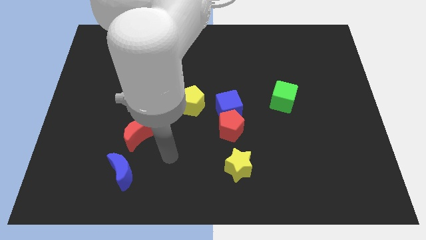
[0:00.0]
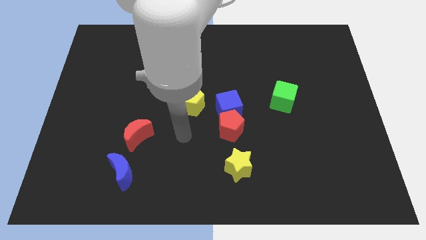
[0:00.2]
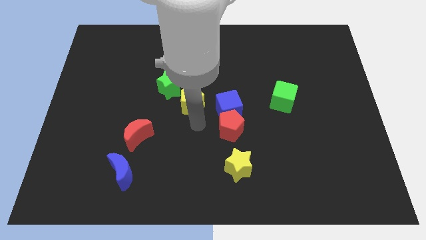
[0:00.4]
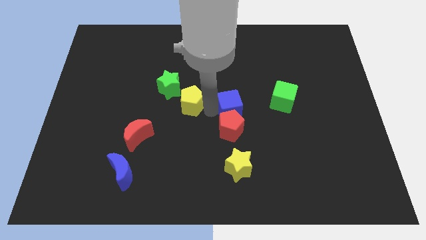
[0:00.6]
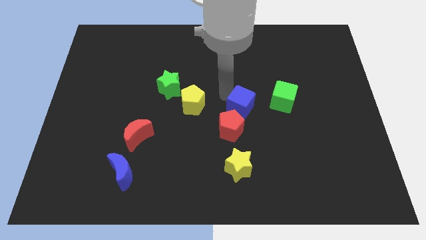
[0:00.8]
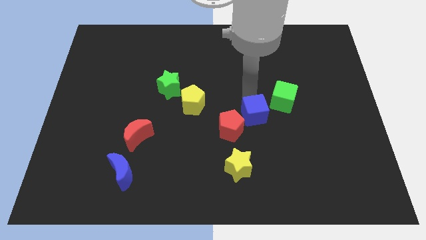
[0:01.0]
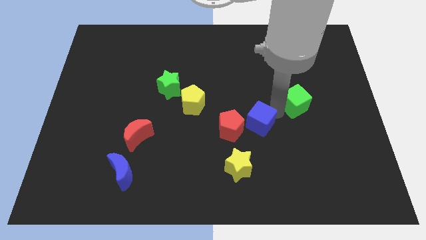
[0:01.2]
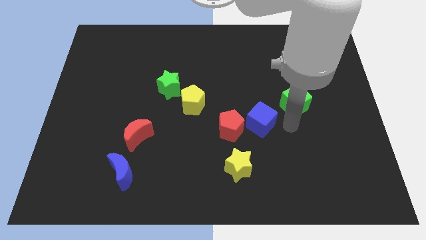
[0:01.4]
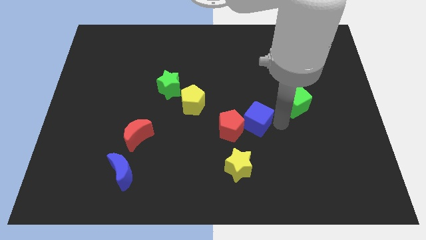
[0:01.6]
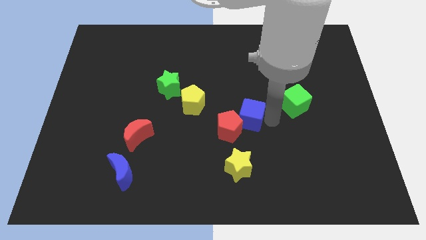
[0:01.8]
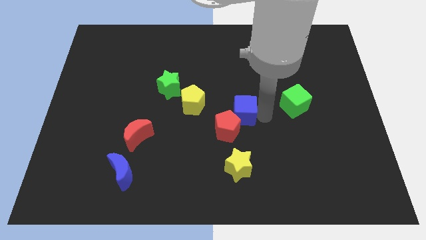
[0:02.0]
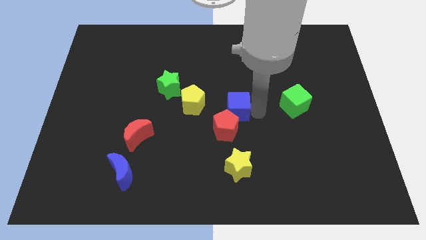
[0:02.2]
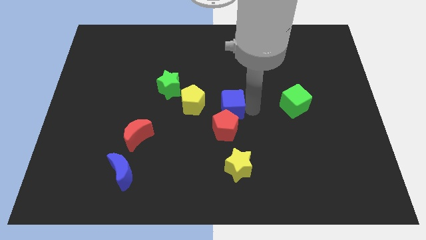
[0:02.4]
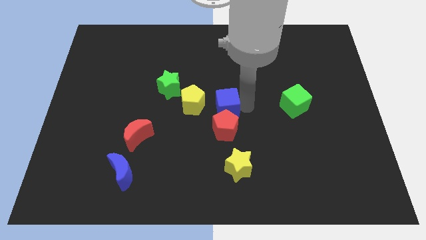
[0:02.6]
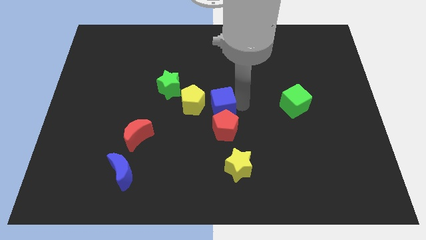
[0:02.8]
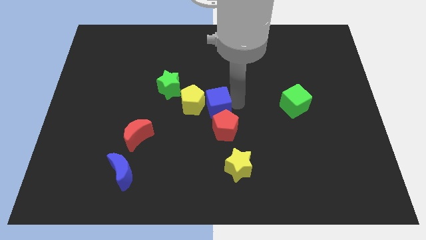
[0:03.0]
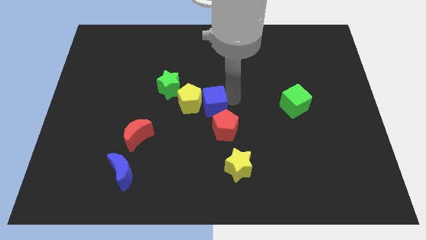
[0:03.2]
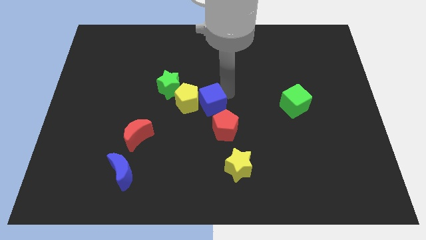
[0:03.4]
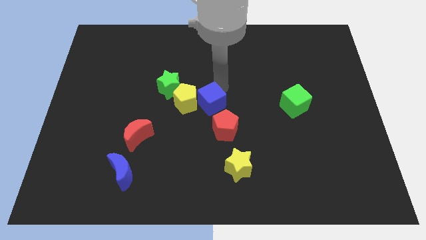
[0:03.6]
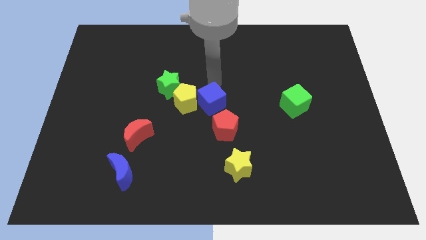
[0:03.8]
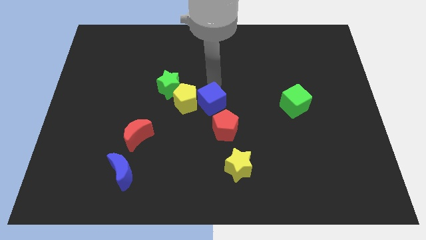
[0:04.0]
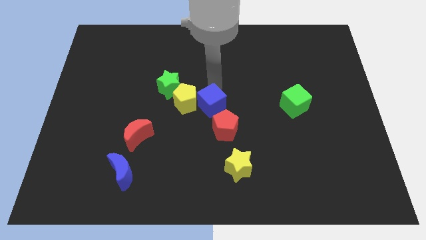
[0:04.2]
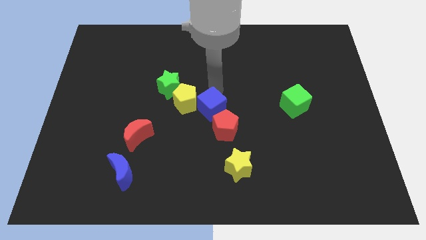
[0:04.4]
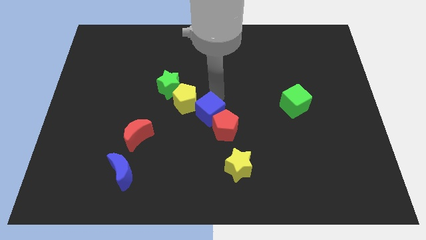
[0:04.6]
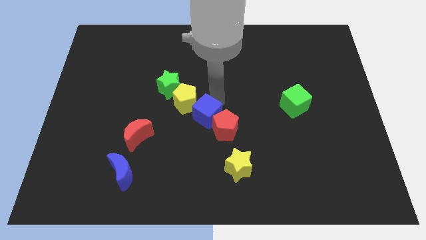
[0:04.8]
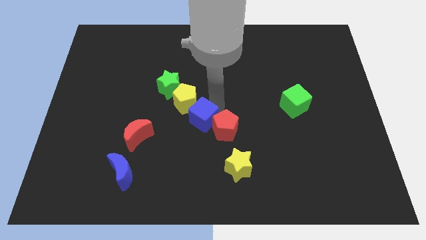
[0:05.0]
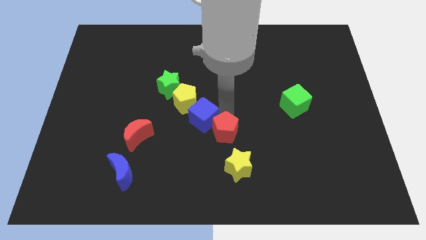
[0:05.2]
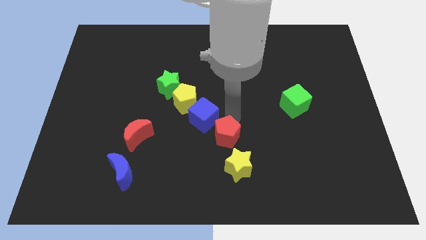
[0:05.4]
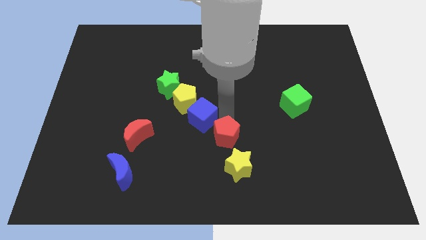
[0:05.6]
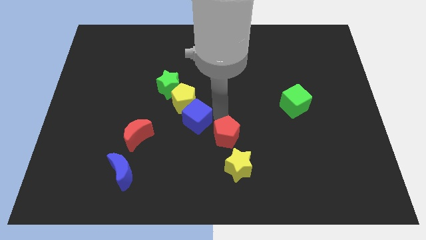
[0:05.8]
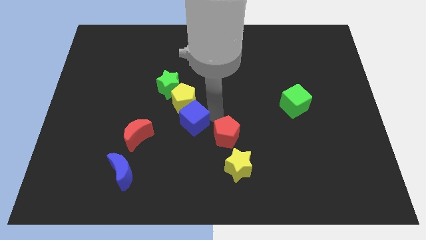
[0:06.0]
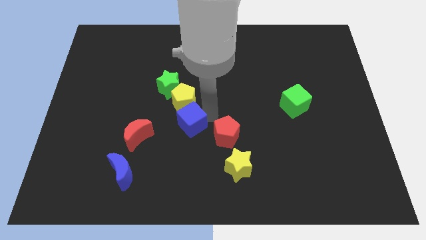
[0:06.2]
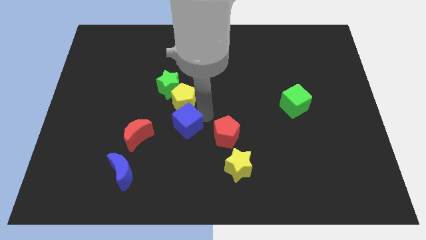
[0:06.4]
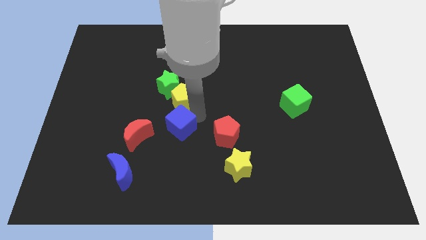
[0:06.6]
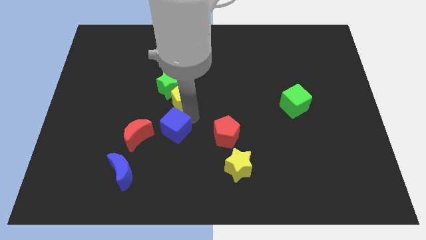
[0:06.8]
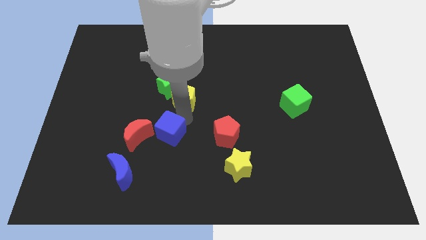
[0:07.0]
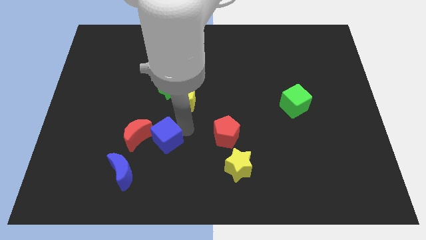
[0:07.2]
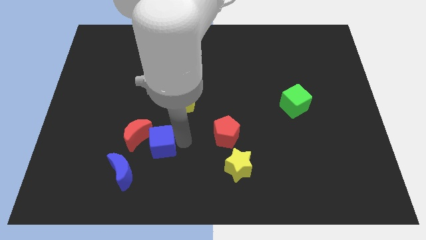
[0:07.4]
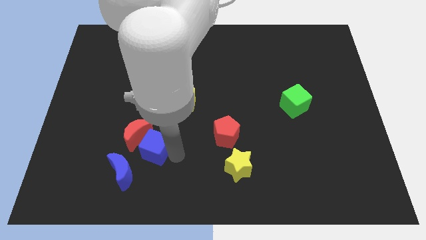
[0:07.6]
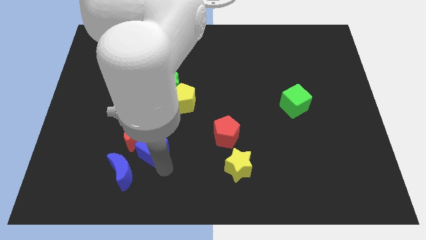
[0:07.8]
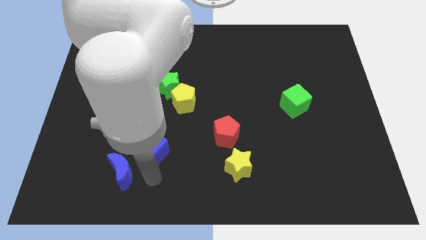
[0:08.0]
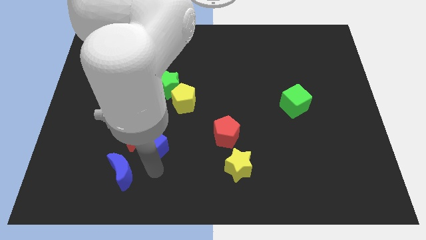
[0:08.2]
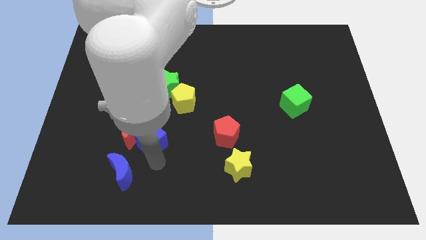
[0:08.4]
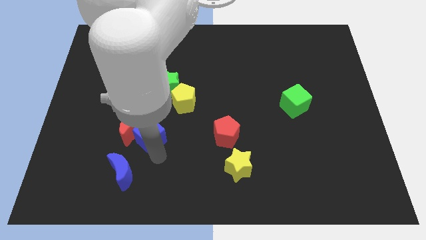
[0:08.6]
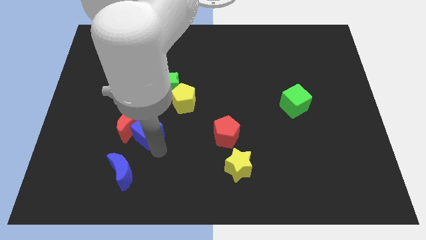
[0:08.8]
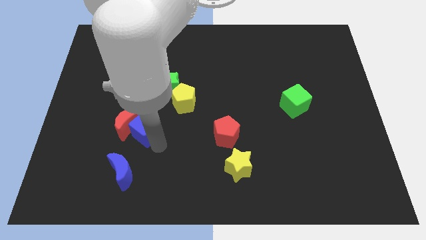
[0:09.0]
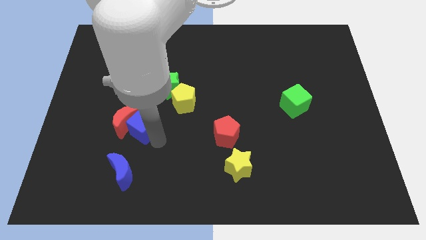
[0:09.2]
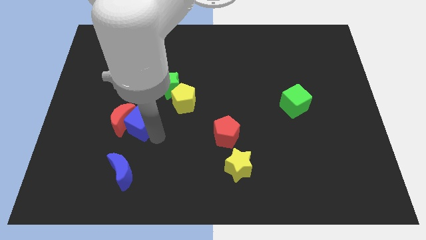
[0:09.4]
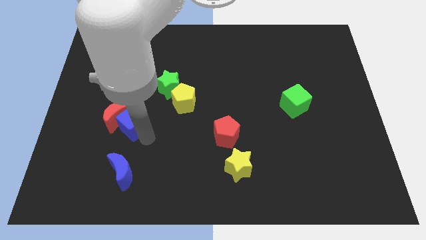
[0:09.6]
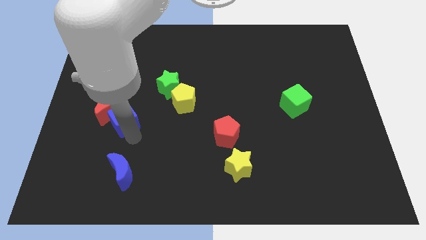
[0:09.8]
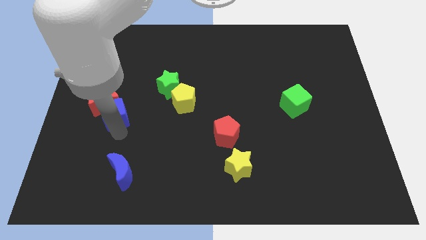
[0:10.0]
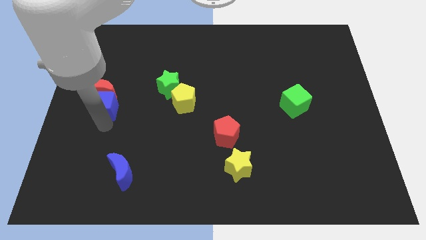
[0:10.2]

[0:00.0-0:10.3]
move the blue cube to the left side

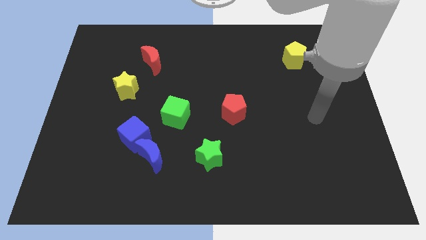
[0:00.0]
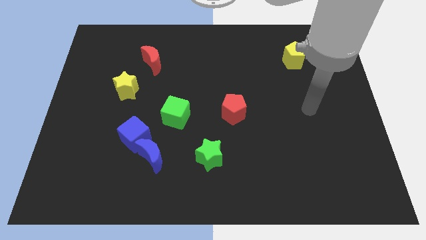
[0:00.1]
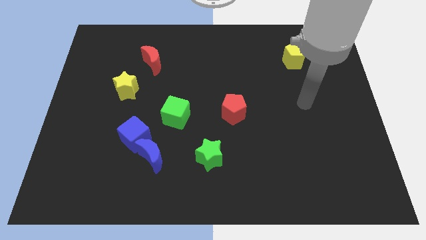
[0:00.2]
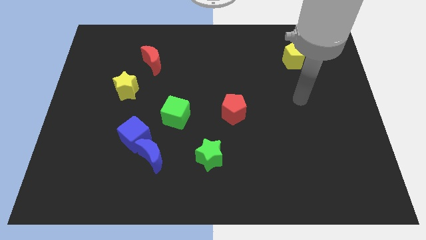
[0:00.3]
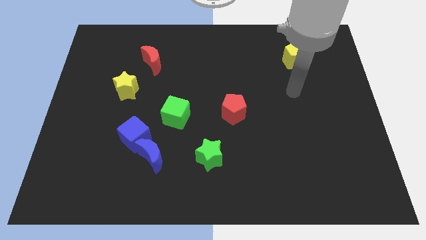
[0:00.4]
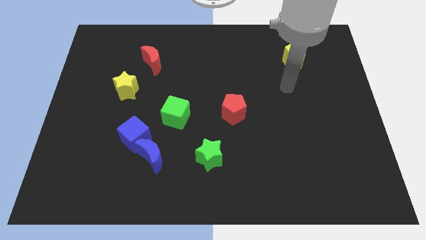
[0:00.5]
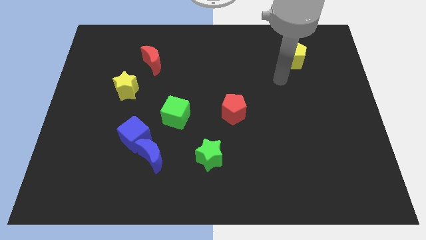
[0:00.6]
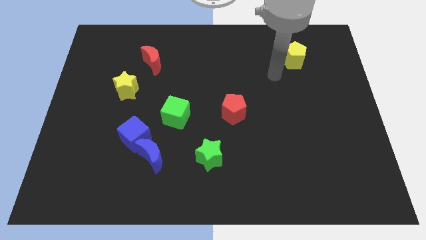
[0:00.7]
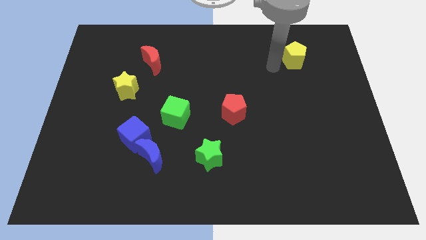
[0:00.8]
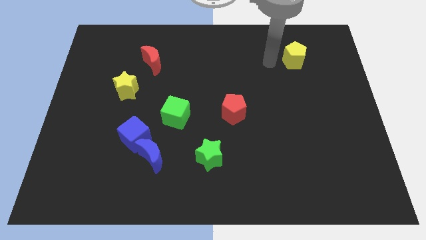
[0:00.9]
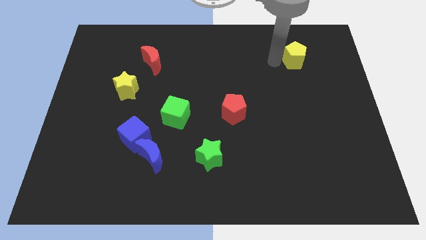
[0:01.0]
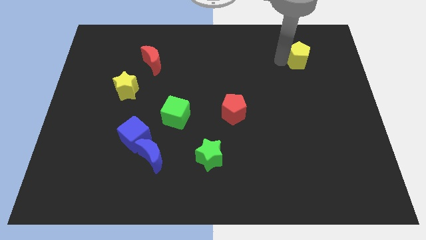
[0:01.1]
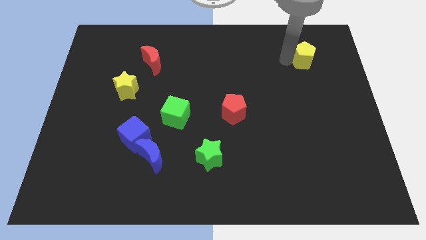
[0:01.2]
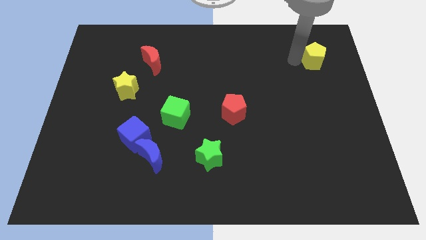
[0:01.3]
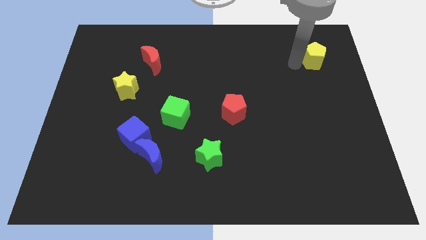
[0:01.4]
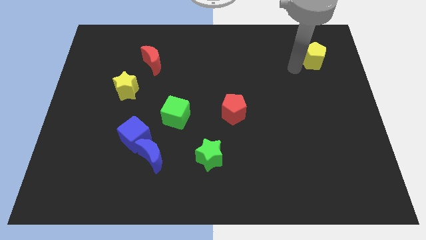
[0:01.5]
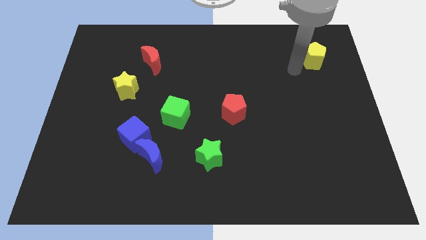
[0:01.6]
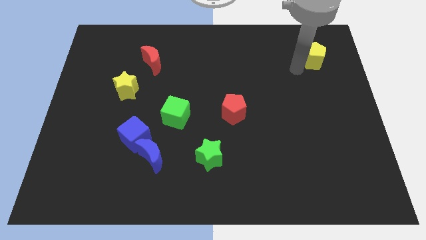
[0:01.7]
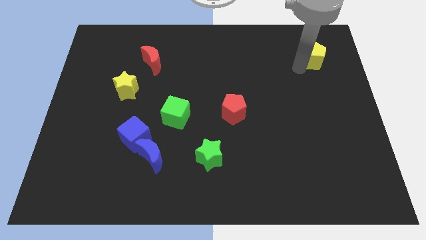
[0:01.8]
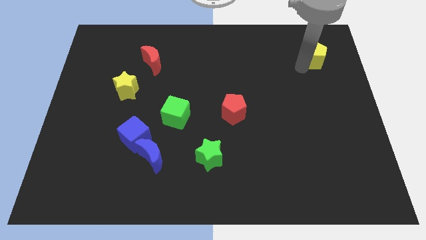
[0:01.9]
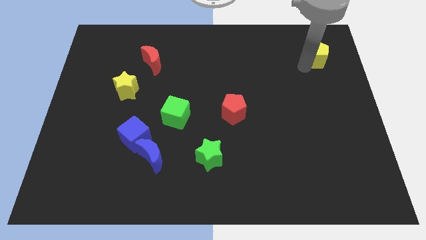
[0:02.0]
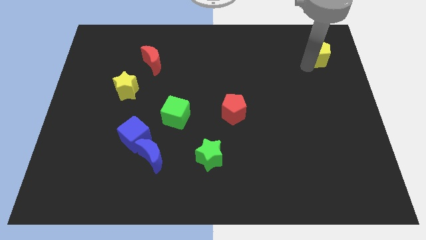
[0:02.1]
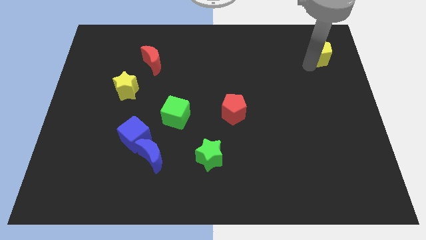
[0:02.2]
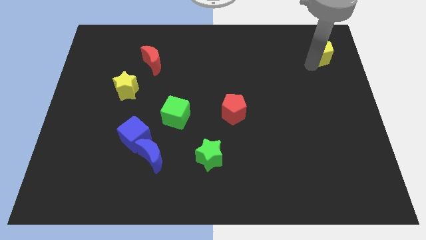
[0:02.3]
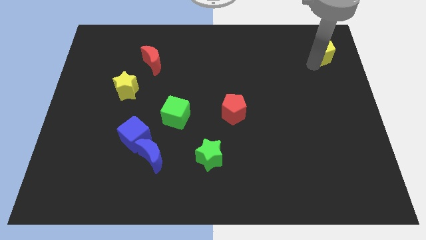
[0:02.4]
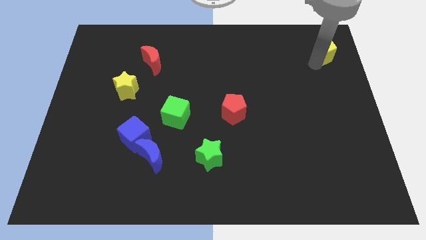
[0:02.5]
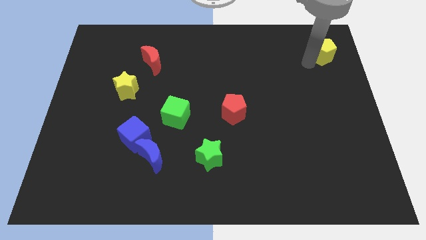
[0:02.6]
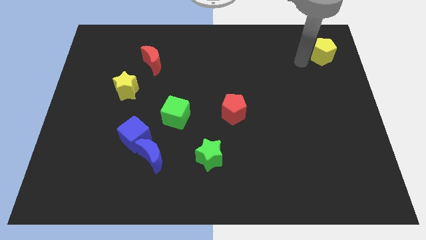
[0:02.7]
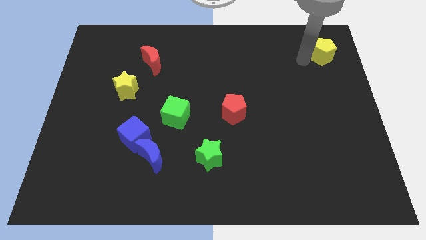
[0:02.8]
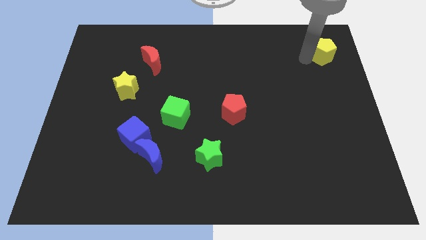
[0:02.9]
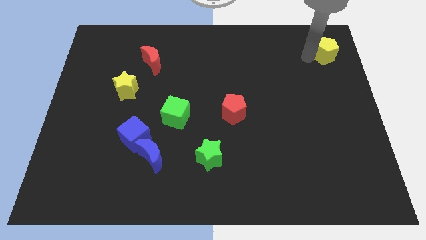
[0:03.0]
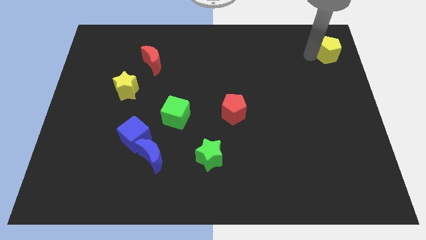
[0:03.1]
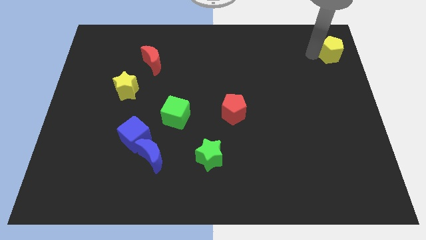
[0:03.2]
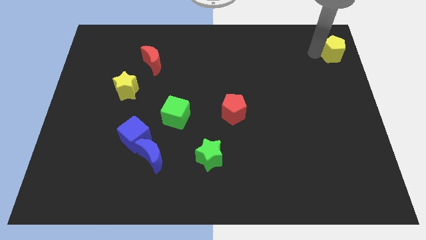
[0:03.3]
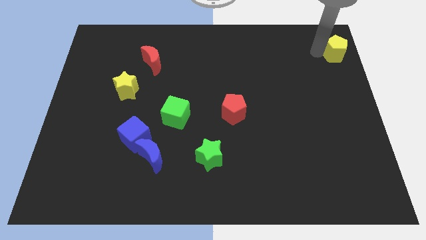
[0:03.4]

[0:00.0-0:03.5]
slide the yellow pentagon to the top right corner
